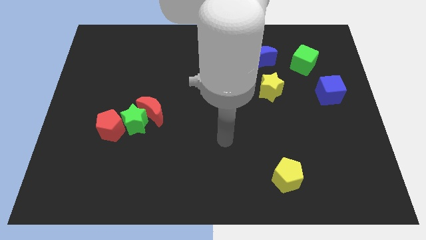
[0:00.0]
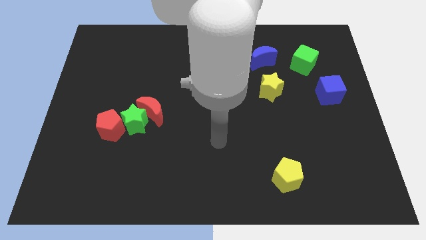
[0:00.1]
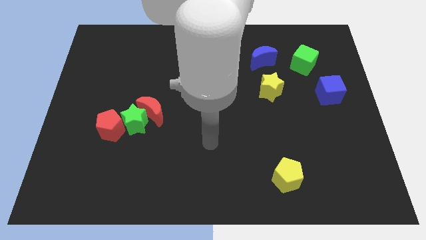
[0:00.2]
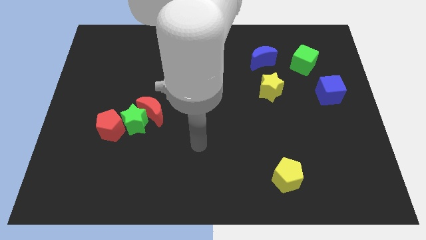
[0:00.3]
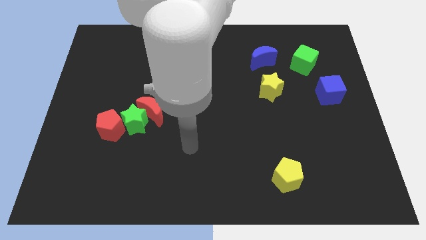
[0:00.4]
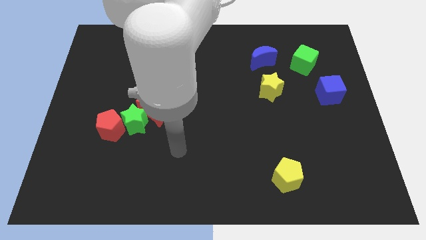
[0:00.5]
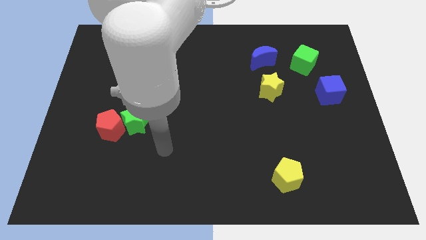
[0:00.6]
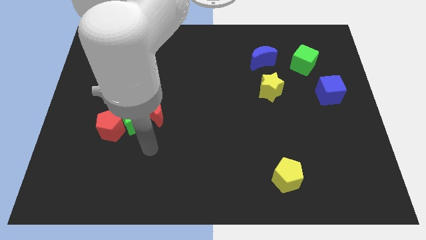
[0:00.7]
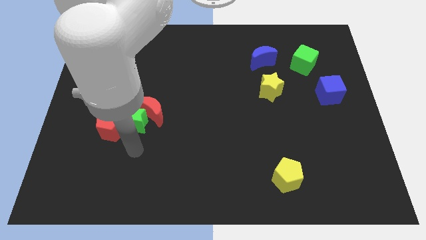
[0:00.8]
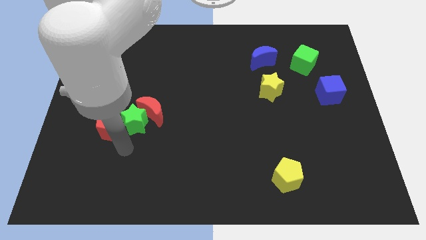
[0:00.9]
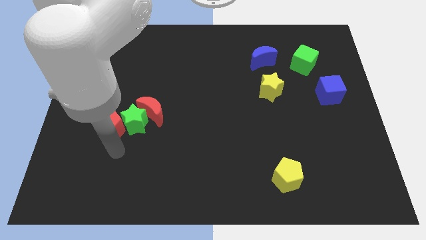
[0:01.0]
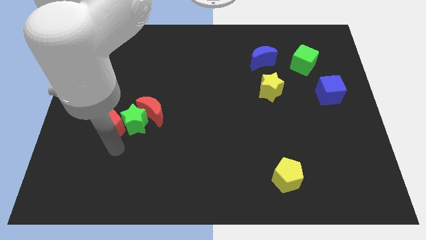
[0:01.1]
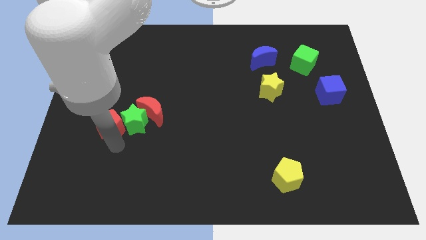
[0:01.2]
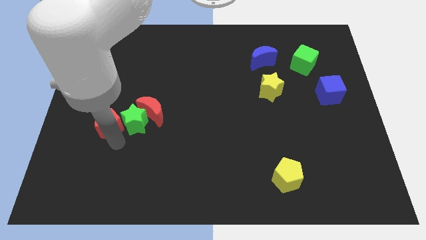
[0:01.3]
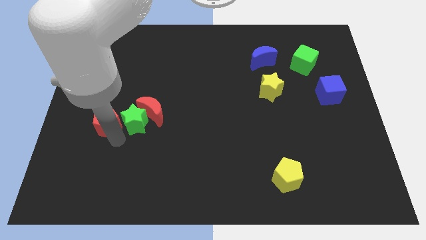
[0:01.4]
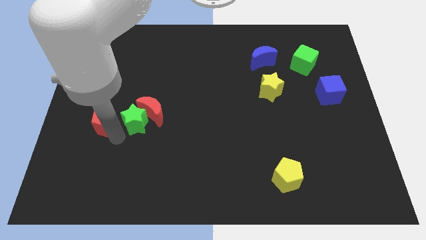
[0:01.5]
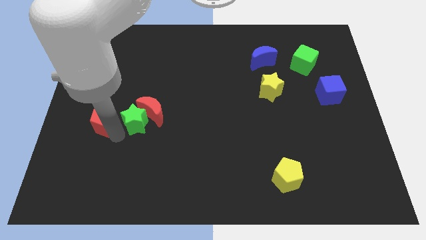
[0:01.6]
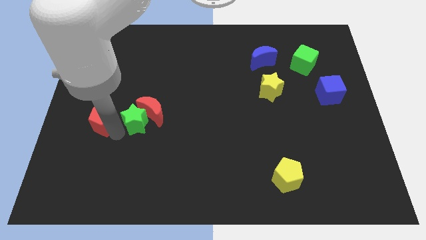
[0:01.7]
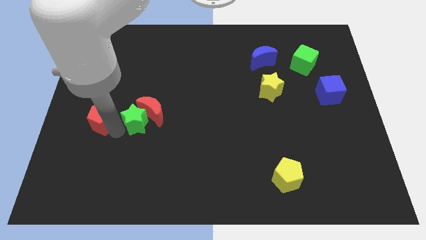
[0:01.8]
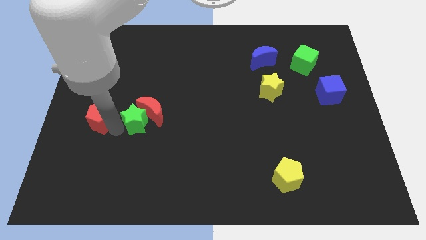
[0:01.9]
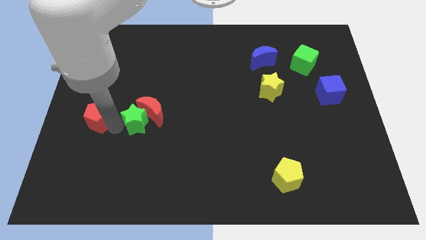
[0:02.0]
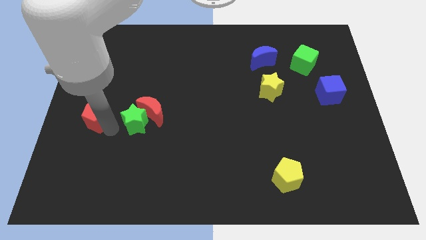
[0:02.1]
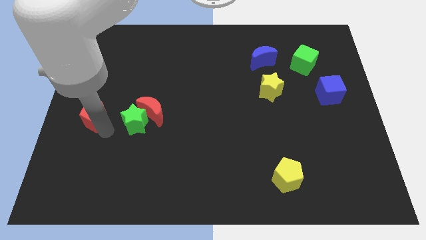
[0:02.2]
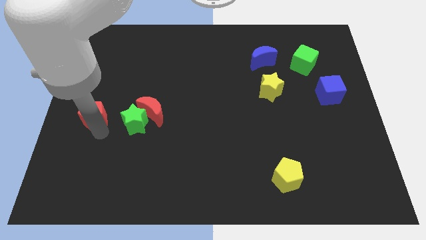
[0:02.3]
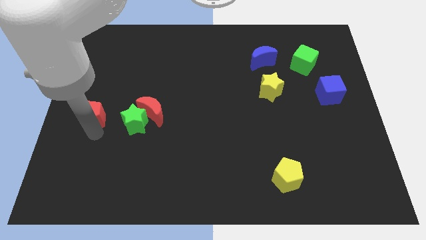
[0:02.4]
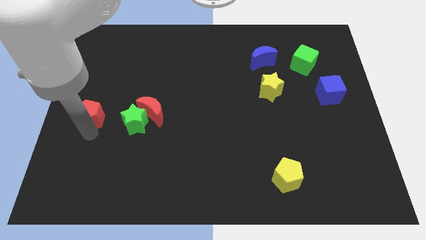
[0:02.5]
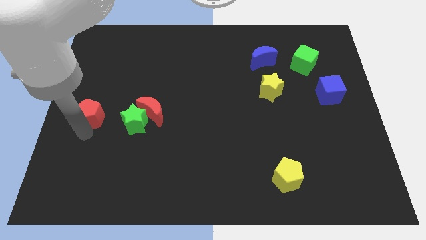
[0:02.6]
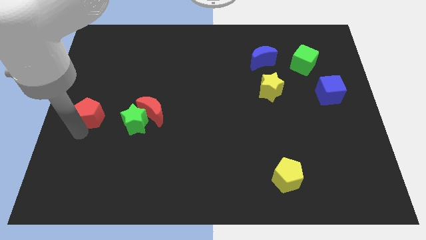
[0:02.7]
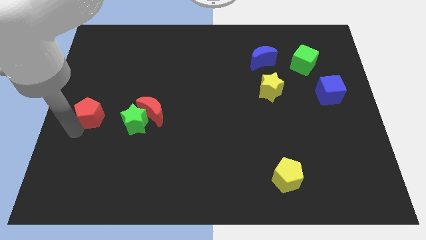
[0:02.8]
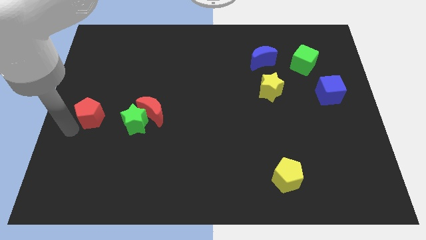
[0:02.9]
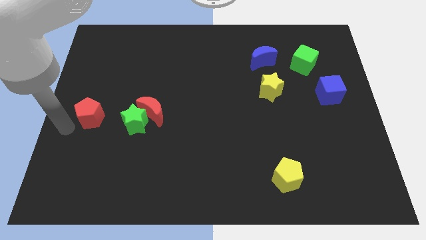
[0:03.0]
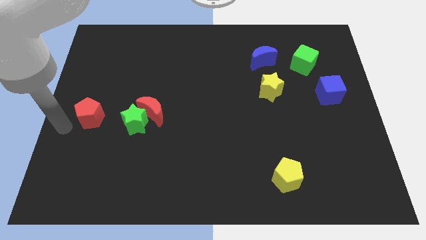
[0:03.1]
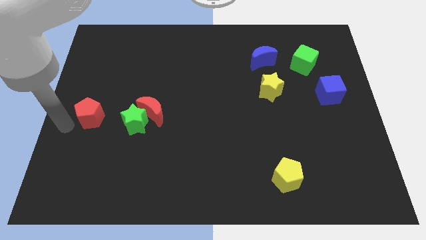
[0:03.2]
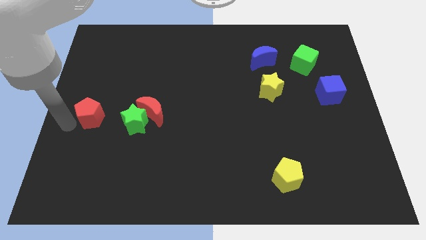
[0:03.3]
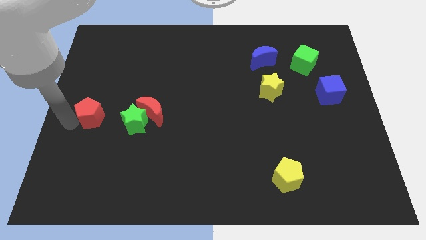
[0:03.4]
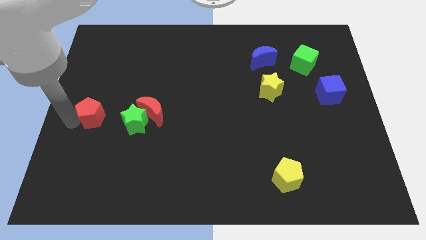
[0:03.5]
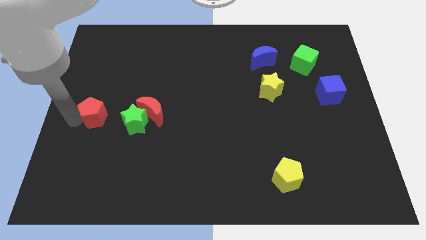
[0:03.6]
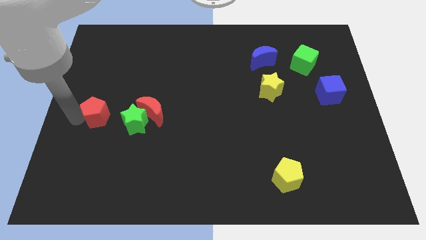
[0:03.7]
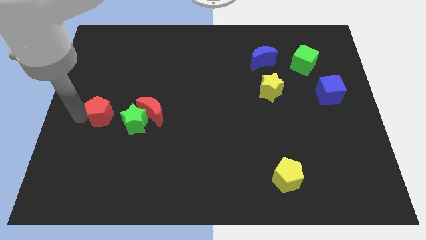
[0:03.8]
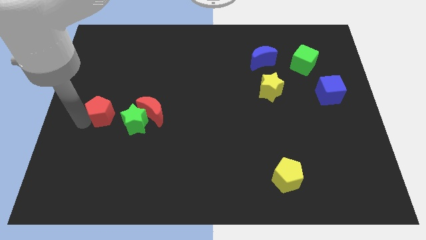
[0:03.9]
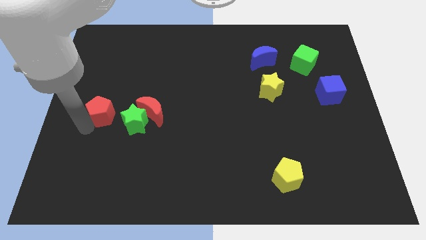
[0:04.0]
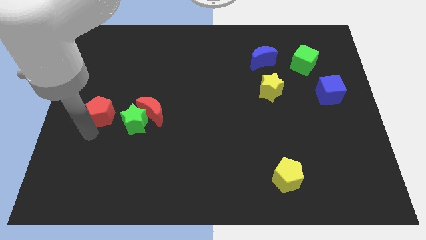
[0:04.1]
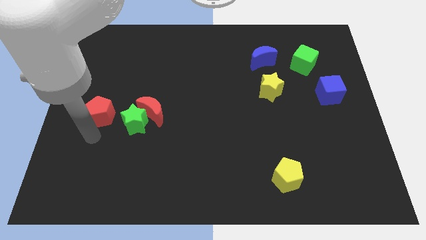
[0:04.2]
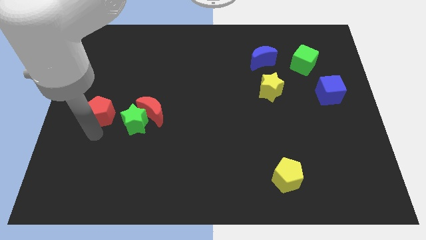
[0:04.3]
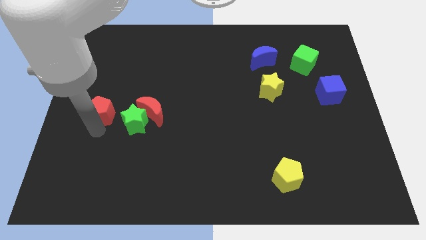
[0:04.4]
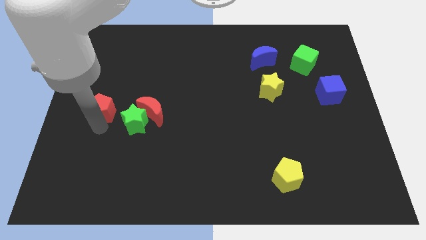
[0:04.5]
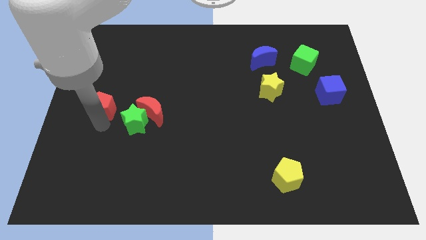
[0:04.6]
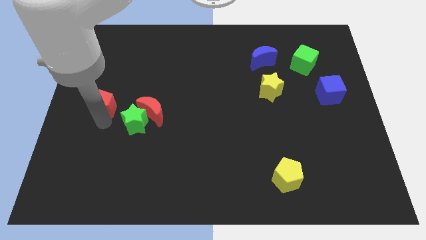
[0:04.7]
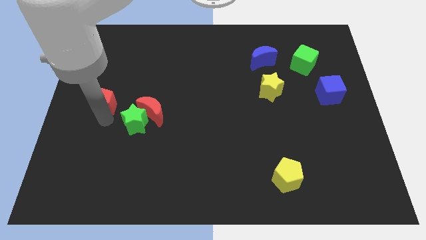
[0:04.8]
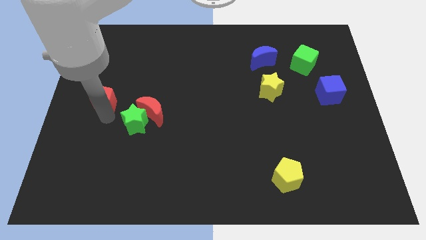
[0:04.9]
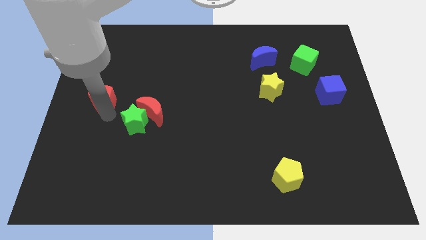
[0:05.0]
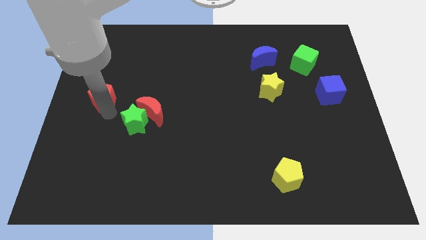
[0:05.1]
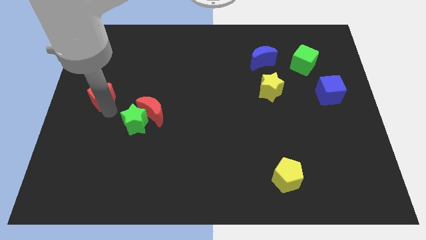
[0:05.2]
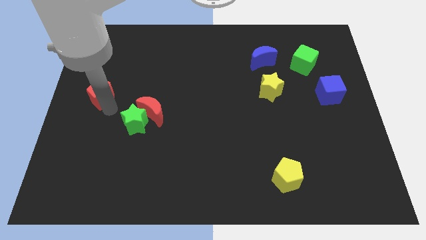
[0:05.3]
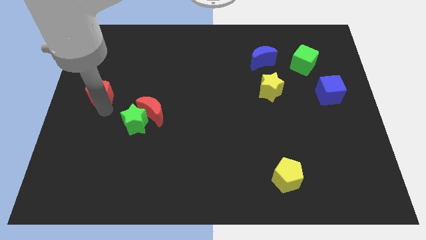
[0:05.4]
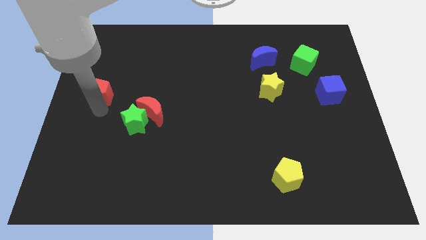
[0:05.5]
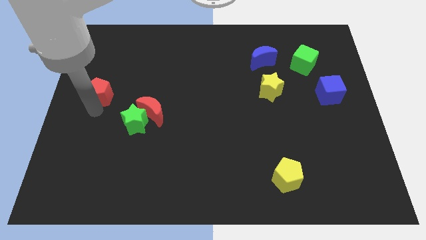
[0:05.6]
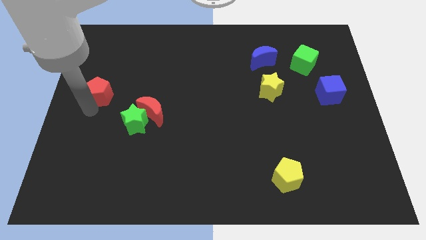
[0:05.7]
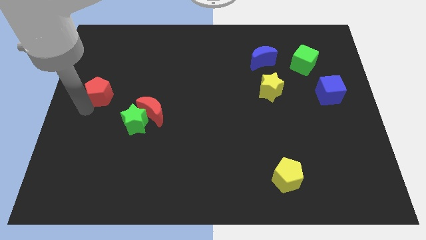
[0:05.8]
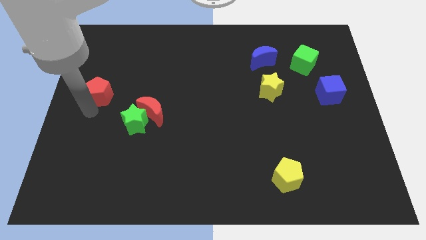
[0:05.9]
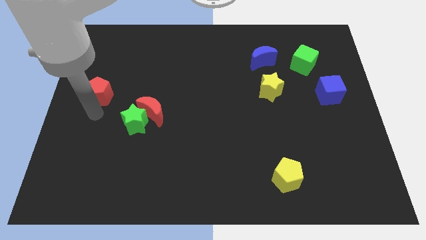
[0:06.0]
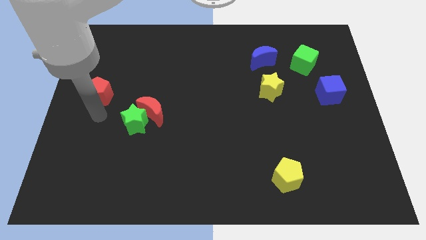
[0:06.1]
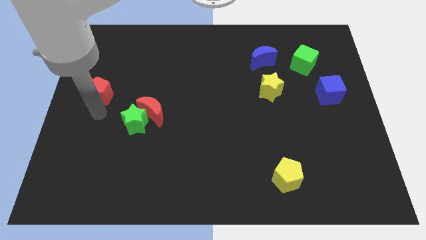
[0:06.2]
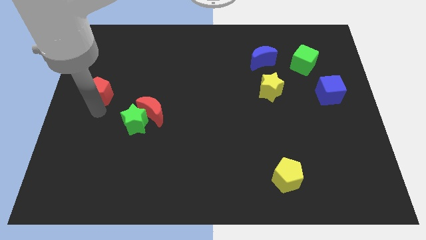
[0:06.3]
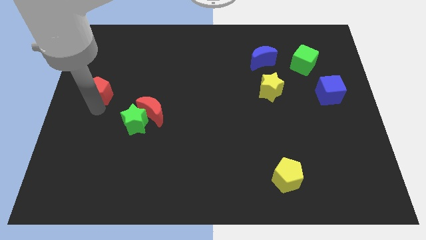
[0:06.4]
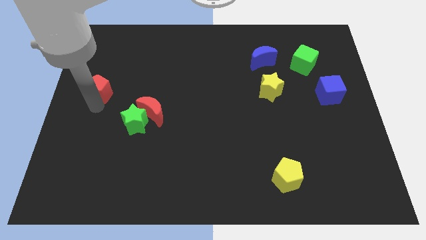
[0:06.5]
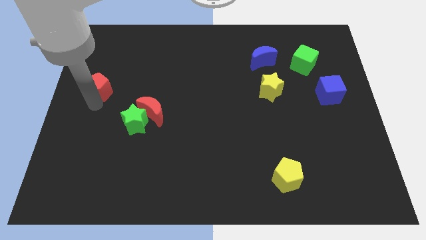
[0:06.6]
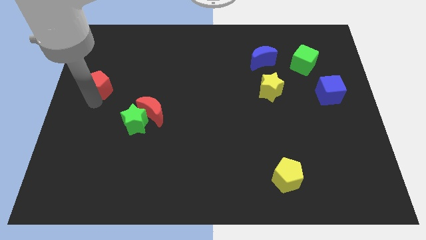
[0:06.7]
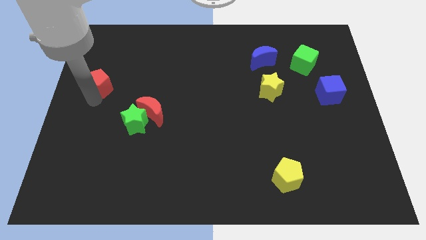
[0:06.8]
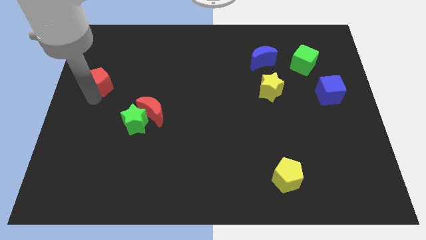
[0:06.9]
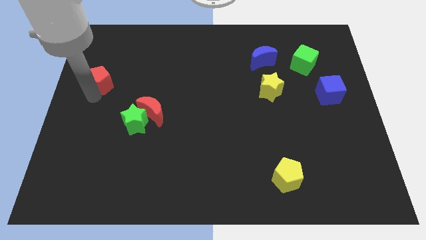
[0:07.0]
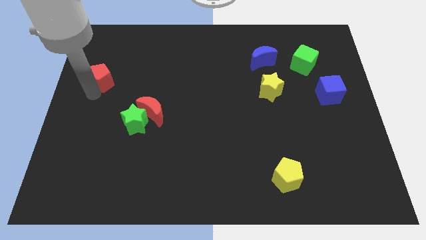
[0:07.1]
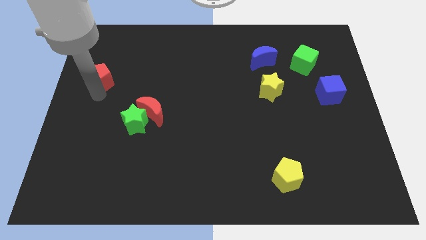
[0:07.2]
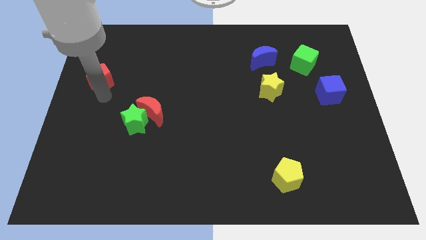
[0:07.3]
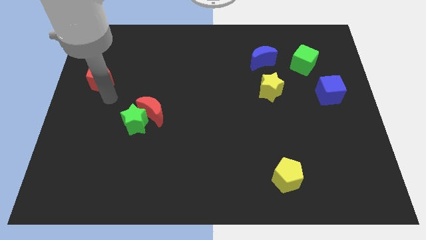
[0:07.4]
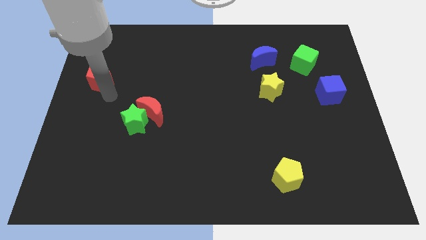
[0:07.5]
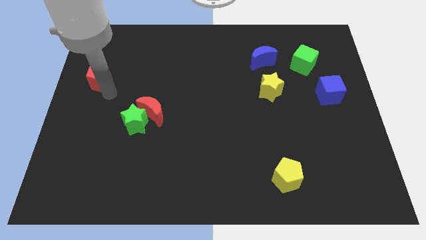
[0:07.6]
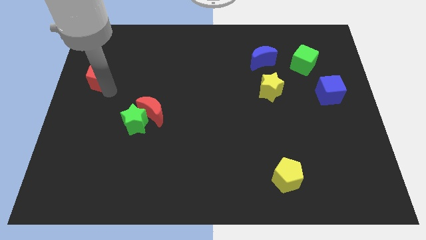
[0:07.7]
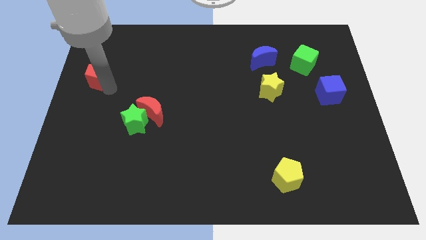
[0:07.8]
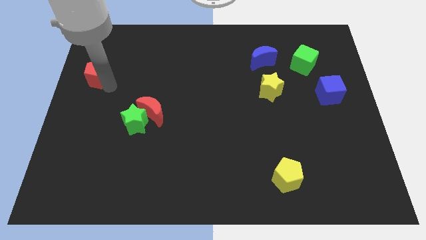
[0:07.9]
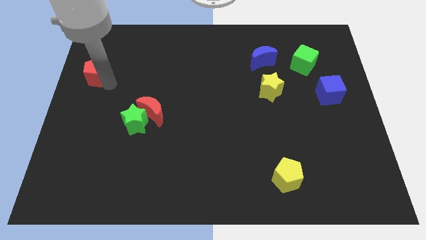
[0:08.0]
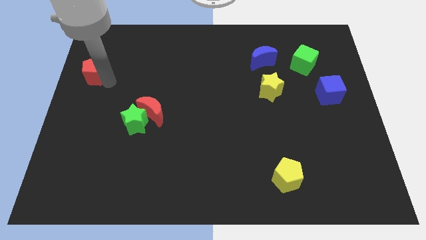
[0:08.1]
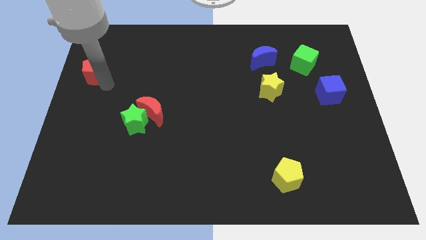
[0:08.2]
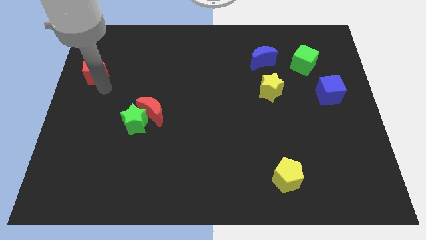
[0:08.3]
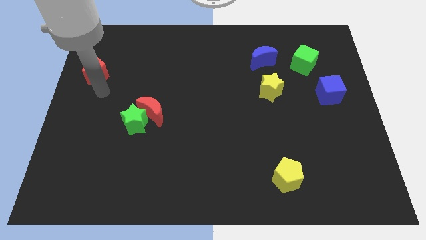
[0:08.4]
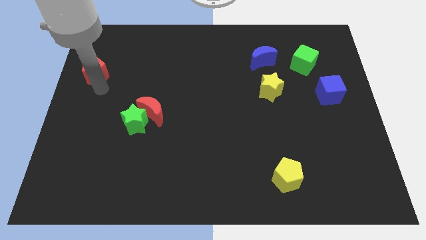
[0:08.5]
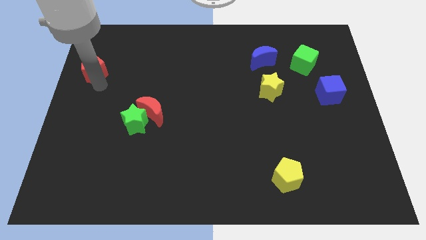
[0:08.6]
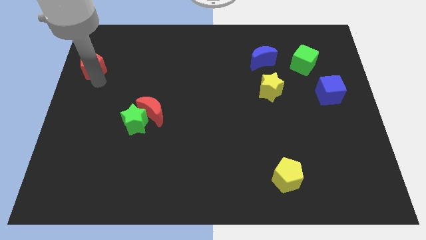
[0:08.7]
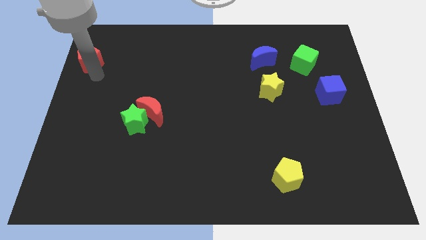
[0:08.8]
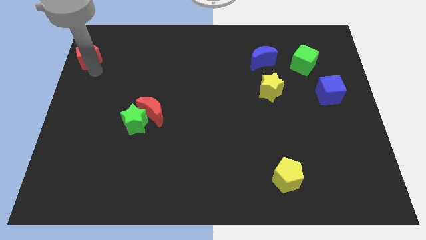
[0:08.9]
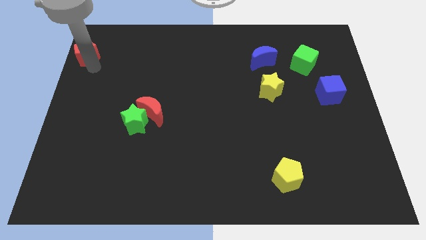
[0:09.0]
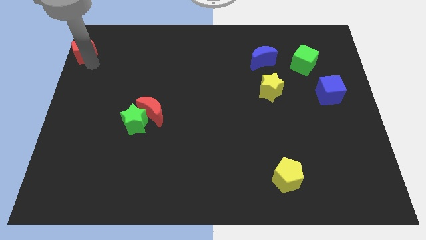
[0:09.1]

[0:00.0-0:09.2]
move the red pentagon to the top left of the board
